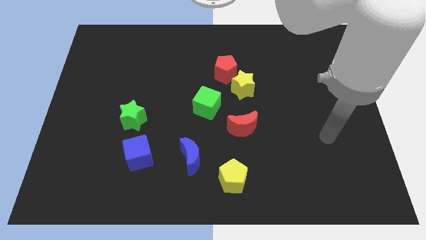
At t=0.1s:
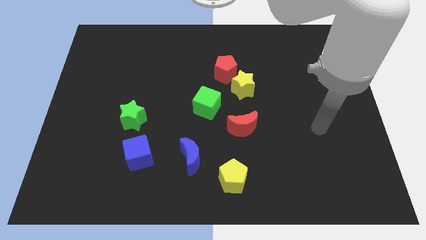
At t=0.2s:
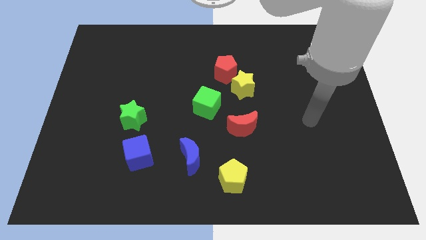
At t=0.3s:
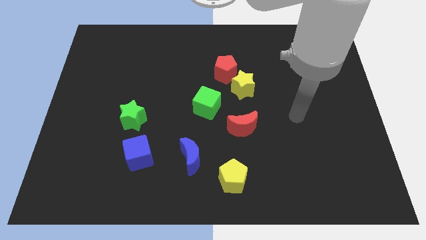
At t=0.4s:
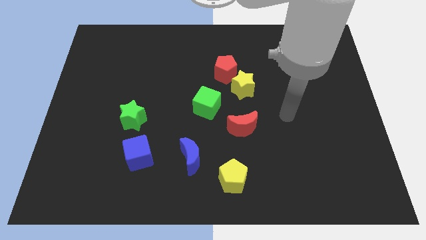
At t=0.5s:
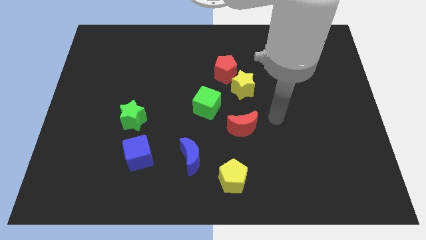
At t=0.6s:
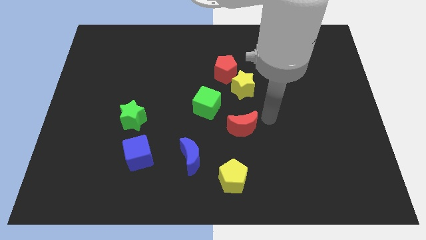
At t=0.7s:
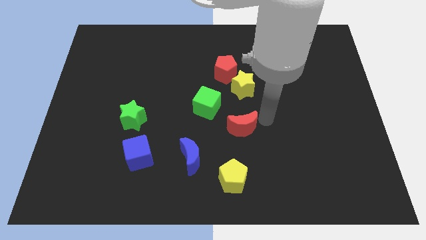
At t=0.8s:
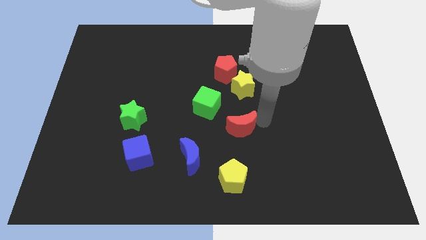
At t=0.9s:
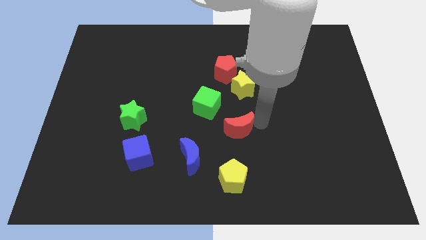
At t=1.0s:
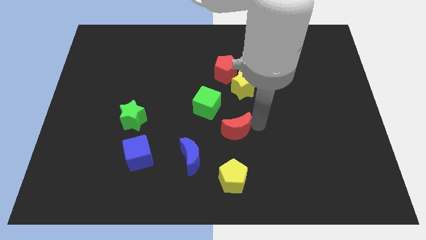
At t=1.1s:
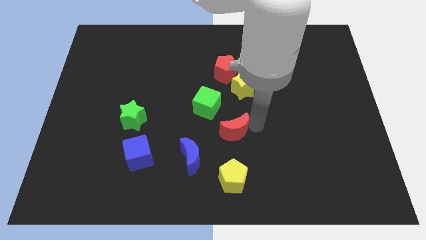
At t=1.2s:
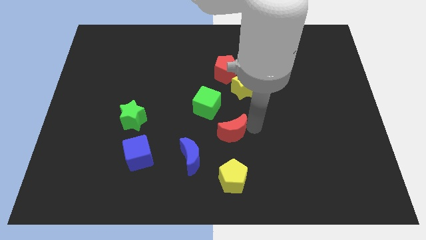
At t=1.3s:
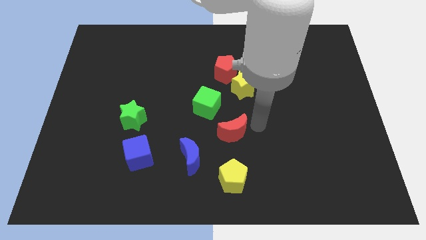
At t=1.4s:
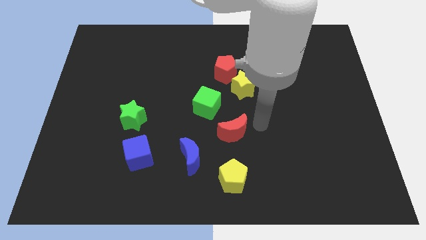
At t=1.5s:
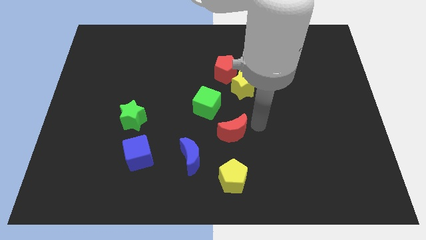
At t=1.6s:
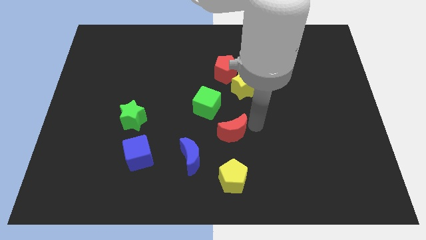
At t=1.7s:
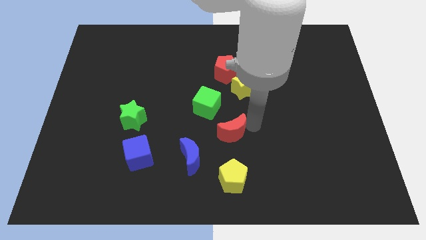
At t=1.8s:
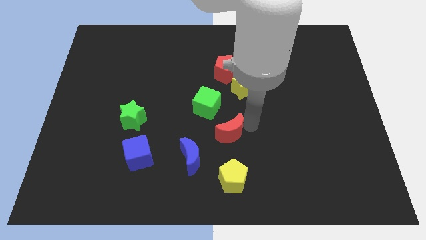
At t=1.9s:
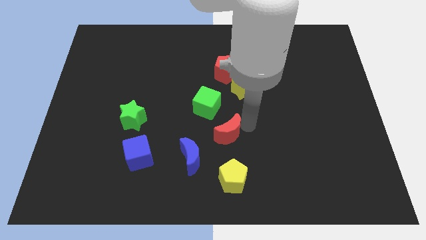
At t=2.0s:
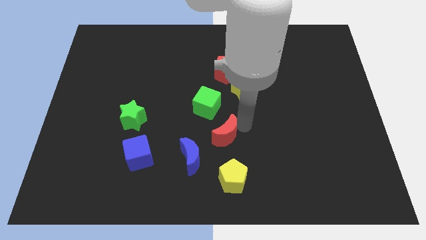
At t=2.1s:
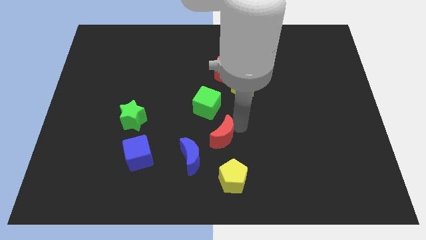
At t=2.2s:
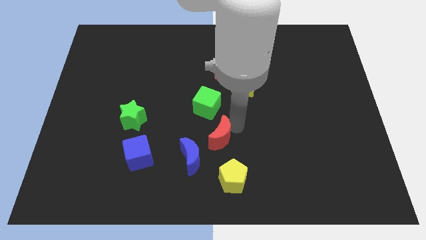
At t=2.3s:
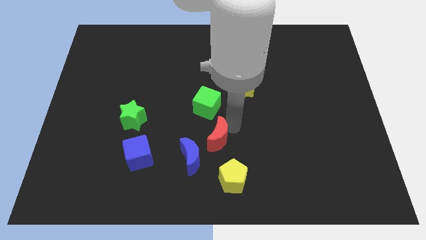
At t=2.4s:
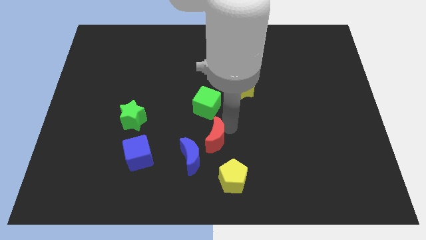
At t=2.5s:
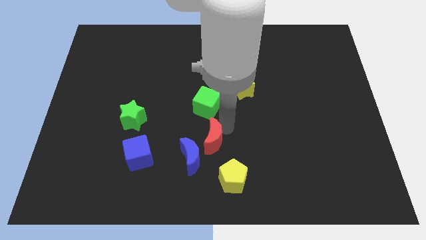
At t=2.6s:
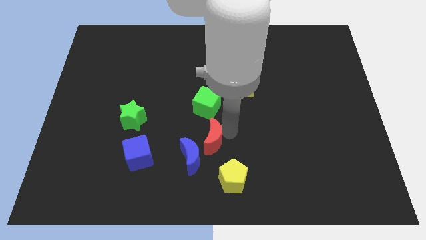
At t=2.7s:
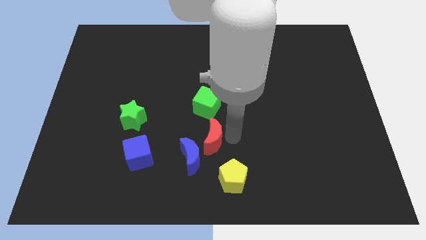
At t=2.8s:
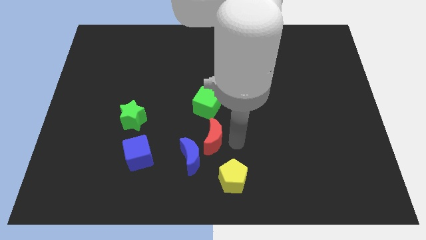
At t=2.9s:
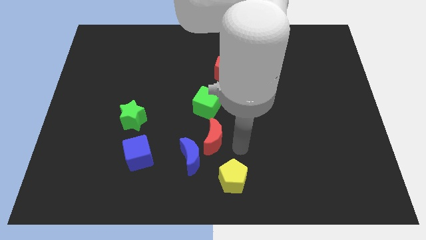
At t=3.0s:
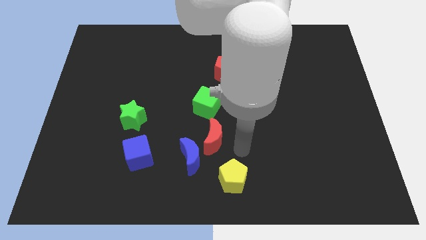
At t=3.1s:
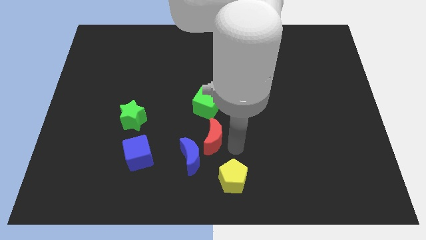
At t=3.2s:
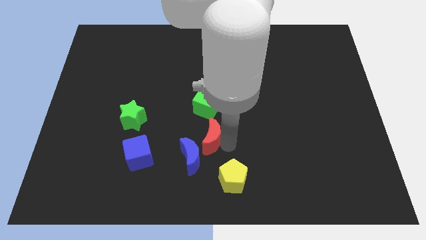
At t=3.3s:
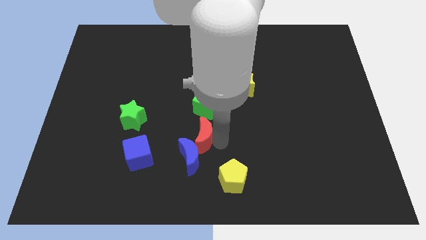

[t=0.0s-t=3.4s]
push the red moon somewhat left

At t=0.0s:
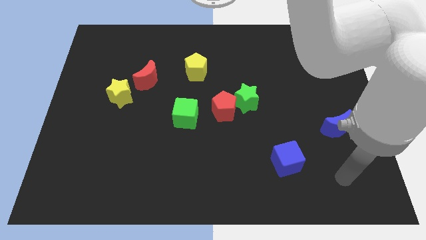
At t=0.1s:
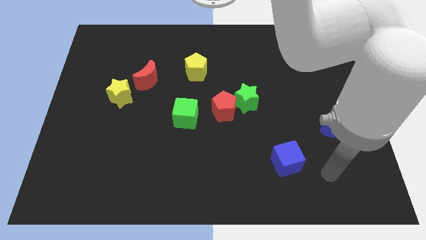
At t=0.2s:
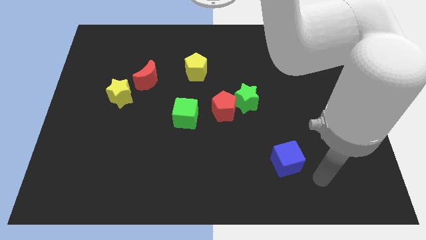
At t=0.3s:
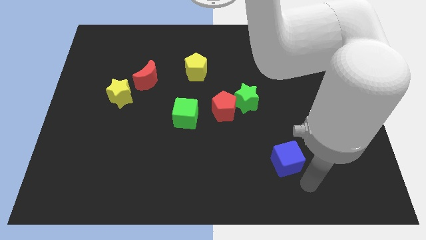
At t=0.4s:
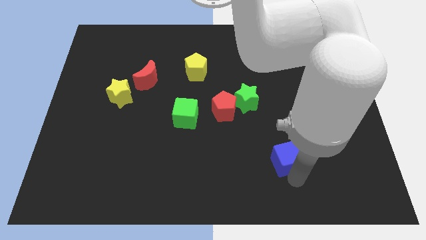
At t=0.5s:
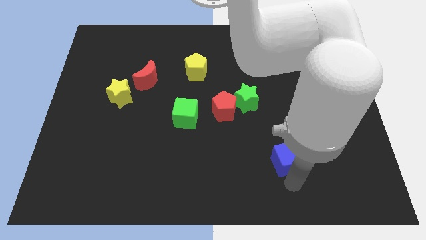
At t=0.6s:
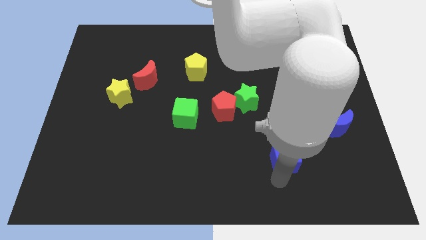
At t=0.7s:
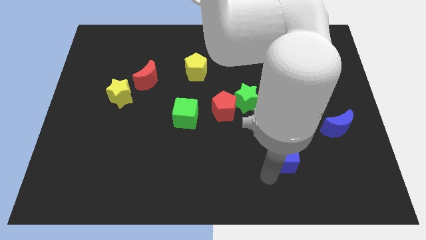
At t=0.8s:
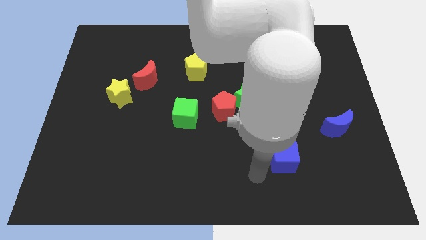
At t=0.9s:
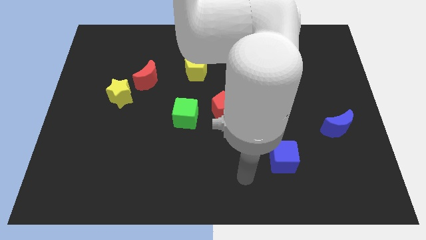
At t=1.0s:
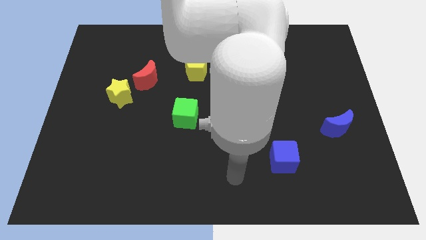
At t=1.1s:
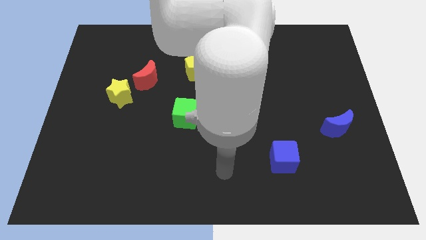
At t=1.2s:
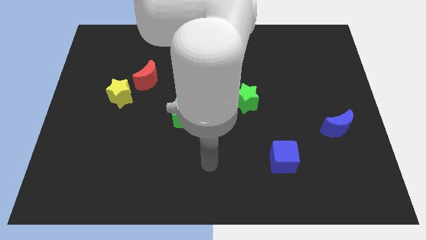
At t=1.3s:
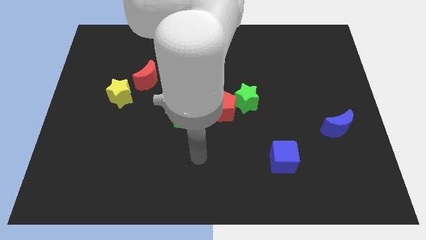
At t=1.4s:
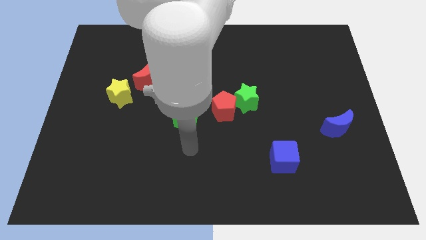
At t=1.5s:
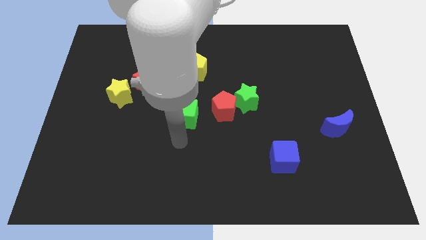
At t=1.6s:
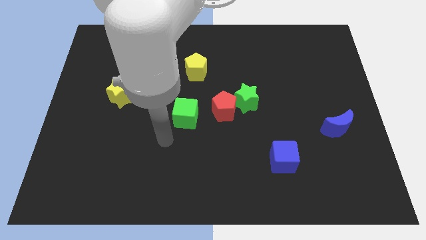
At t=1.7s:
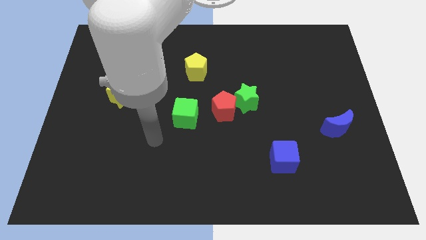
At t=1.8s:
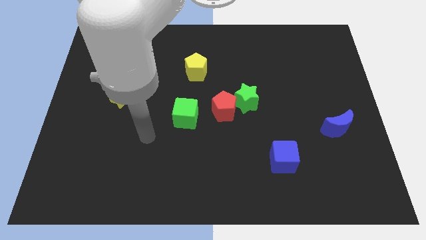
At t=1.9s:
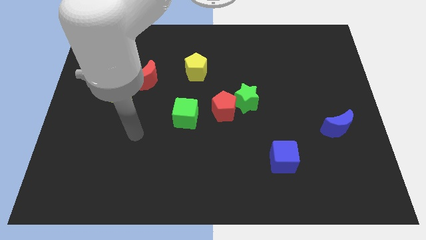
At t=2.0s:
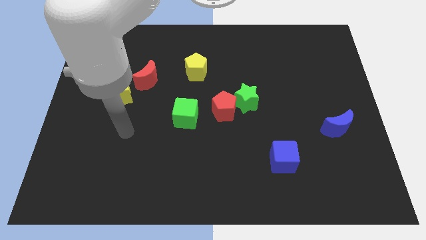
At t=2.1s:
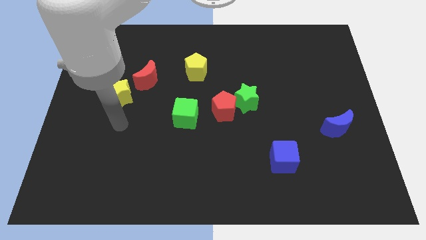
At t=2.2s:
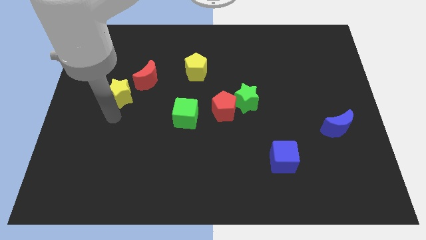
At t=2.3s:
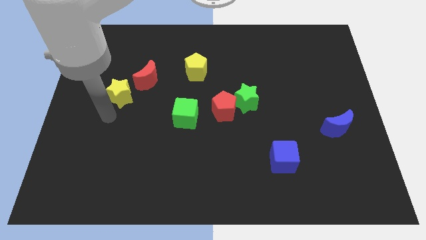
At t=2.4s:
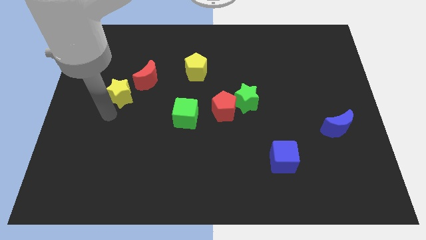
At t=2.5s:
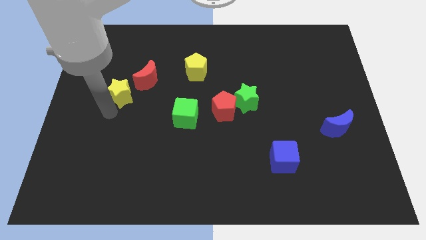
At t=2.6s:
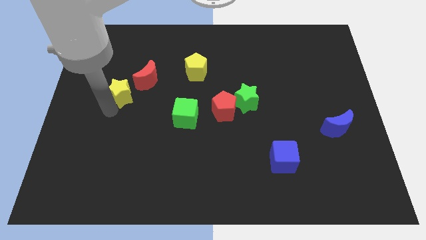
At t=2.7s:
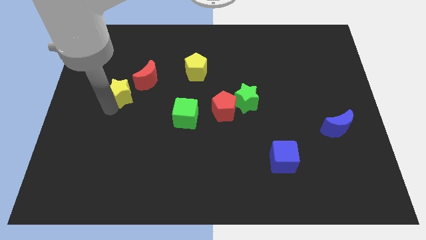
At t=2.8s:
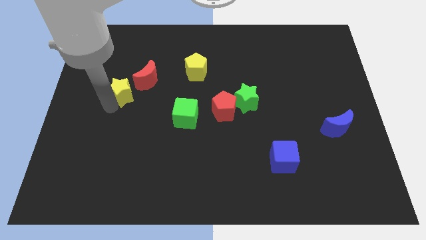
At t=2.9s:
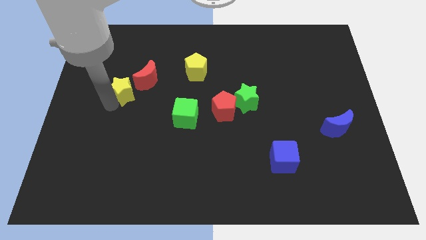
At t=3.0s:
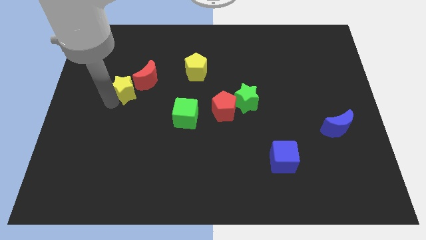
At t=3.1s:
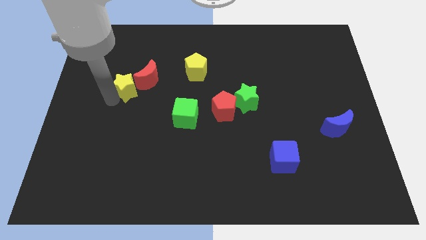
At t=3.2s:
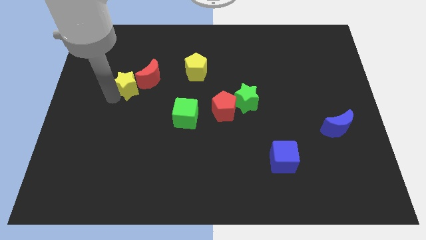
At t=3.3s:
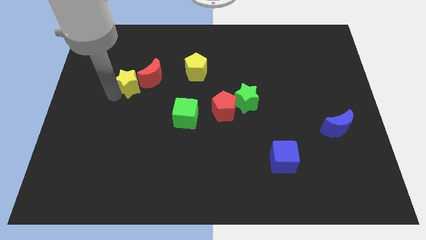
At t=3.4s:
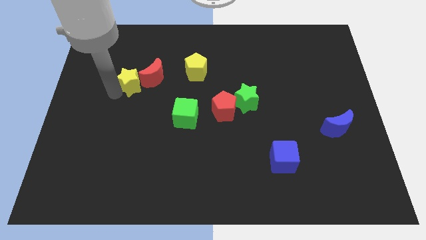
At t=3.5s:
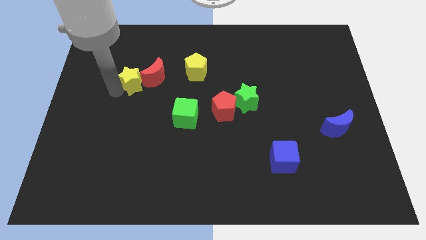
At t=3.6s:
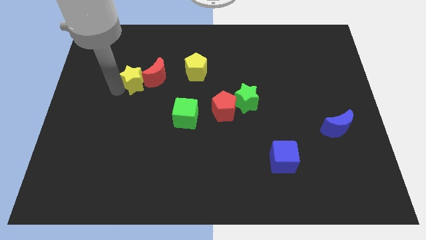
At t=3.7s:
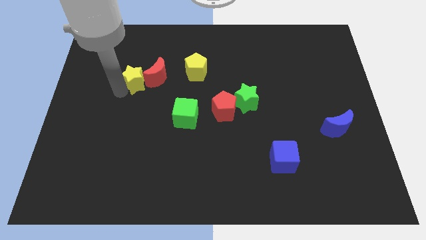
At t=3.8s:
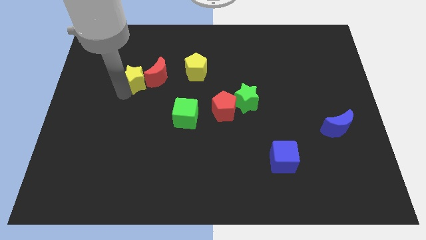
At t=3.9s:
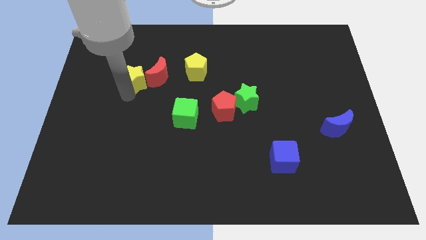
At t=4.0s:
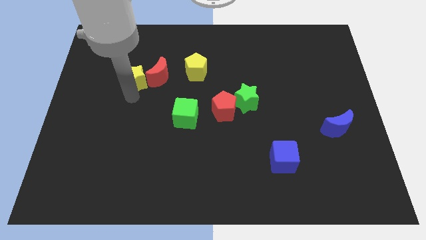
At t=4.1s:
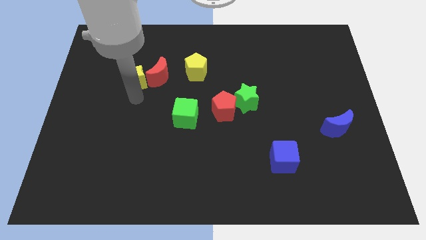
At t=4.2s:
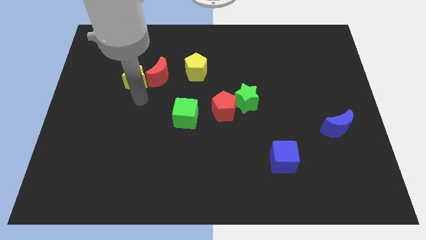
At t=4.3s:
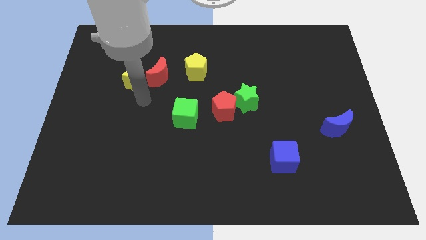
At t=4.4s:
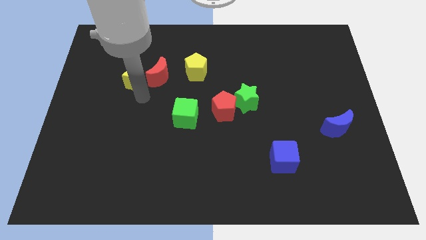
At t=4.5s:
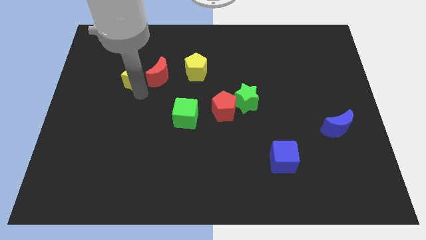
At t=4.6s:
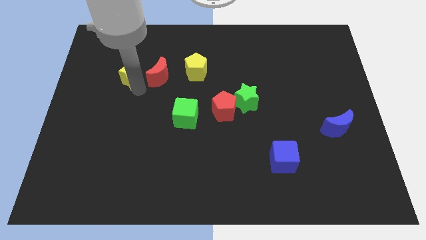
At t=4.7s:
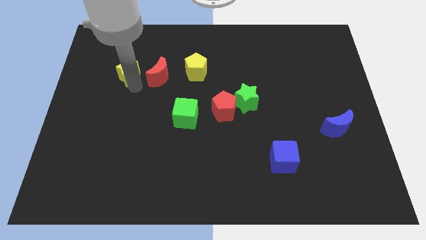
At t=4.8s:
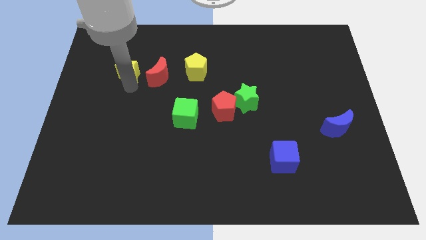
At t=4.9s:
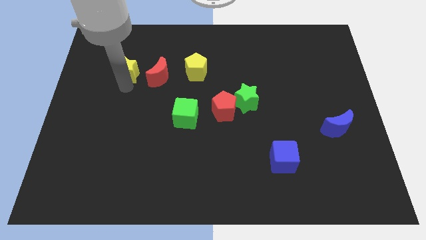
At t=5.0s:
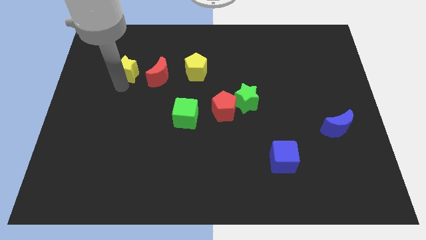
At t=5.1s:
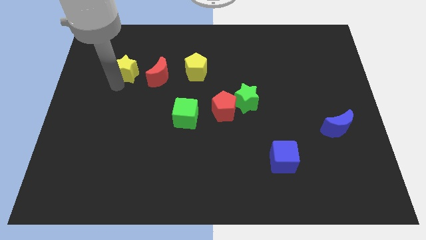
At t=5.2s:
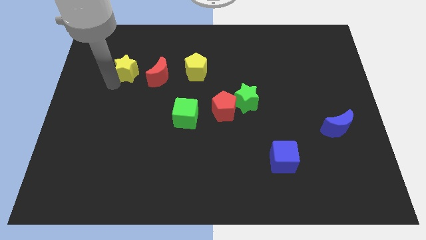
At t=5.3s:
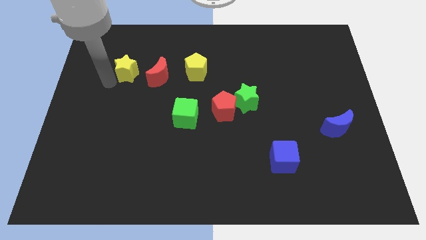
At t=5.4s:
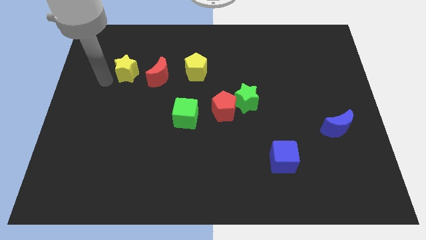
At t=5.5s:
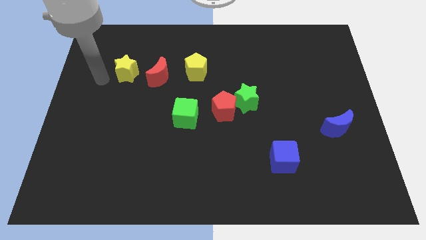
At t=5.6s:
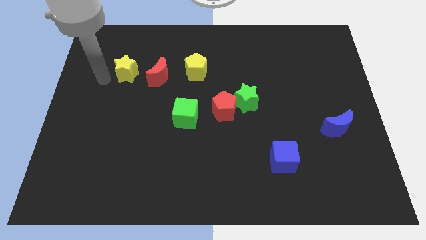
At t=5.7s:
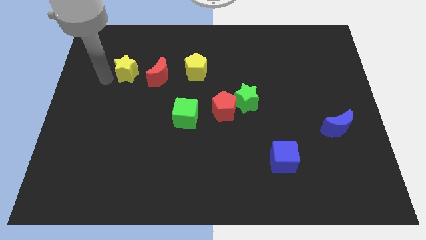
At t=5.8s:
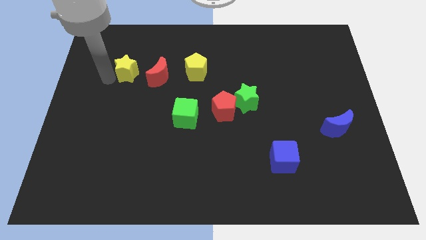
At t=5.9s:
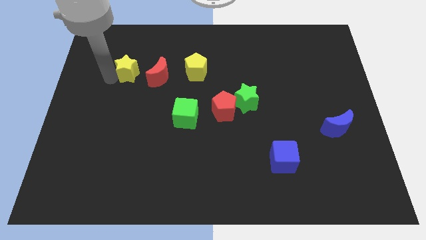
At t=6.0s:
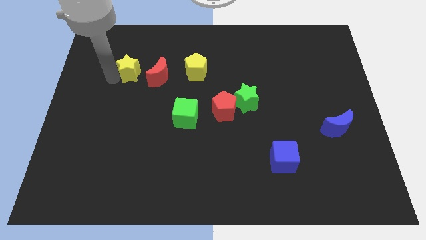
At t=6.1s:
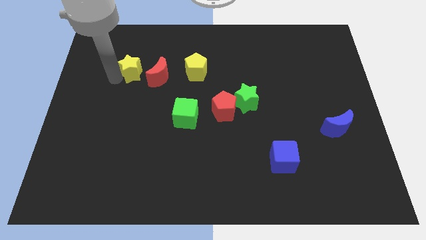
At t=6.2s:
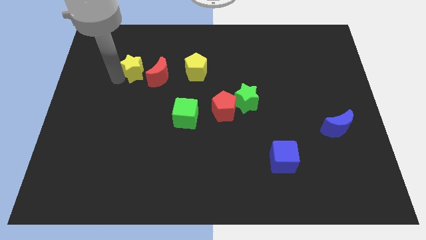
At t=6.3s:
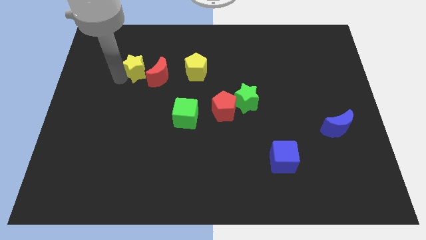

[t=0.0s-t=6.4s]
move the yellow star slightly up and to the right
